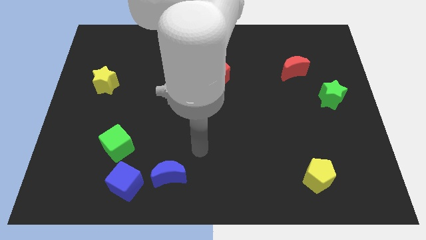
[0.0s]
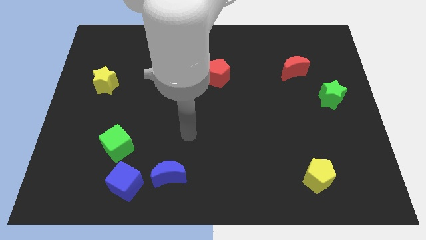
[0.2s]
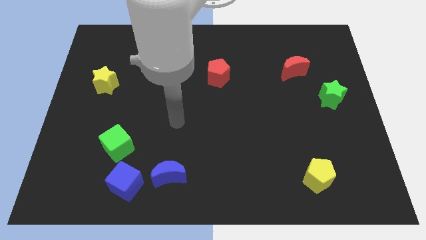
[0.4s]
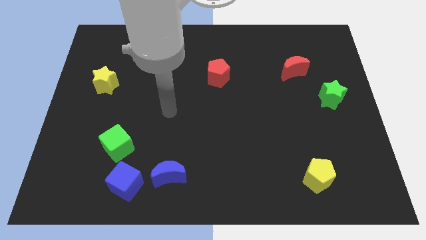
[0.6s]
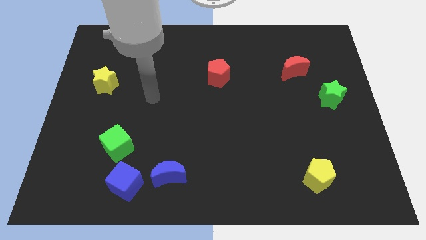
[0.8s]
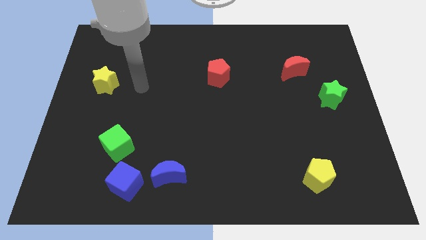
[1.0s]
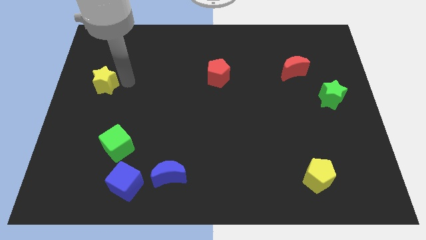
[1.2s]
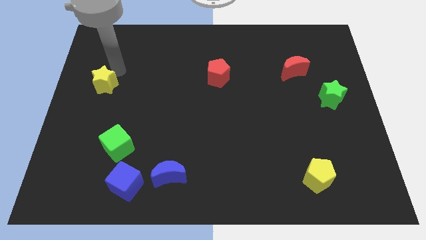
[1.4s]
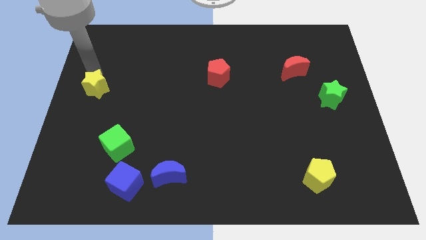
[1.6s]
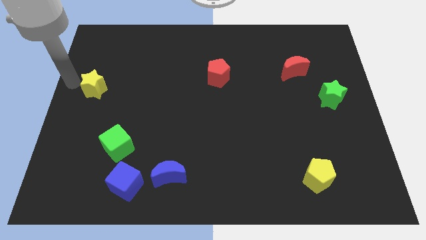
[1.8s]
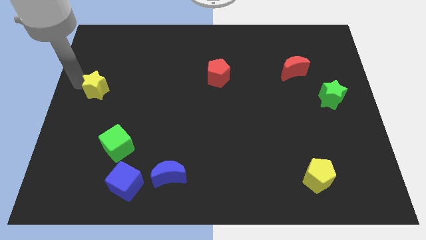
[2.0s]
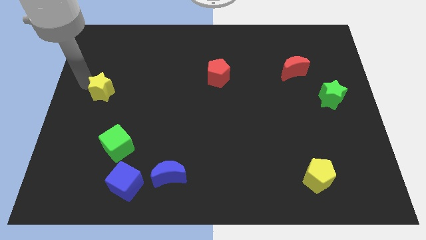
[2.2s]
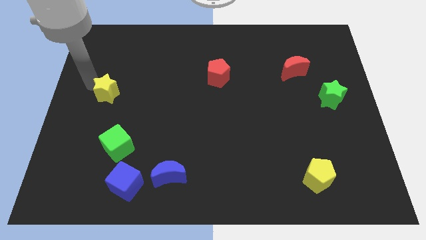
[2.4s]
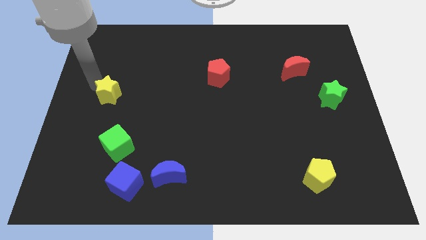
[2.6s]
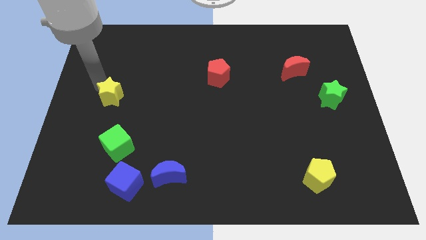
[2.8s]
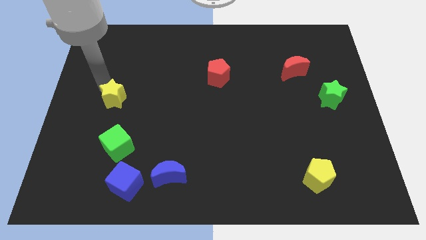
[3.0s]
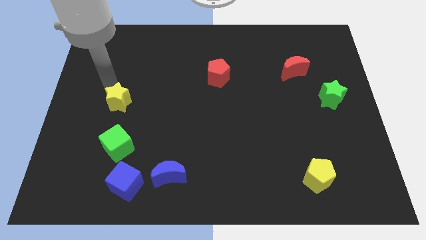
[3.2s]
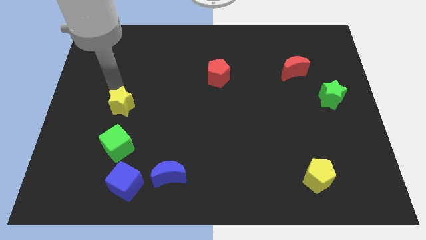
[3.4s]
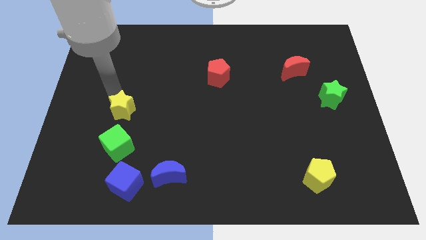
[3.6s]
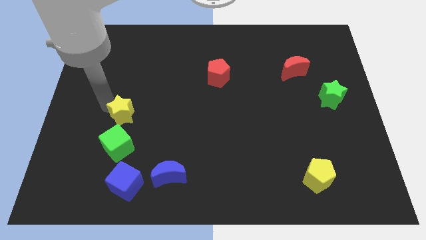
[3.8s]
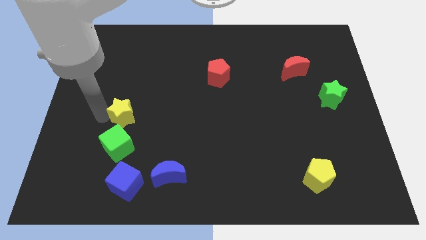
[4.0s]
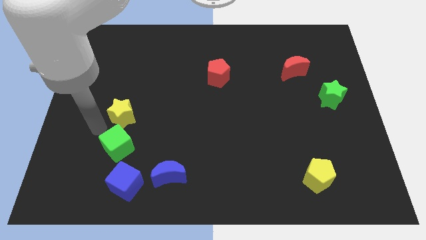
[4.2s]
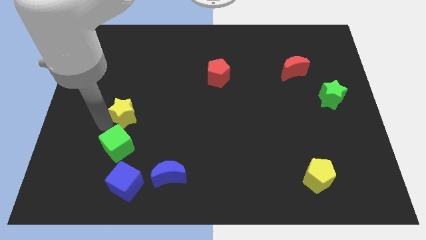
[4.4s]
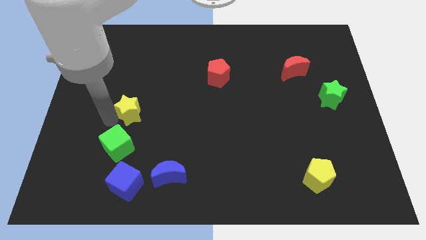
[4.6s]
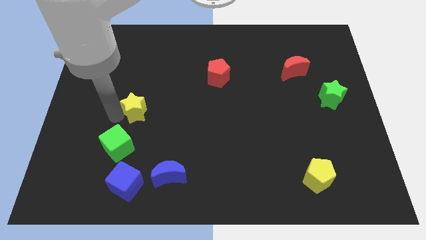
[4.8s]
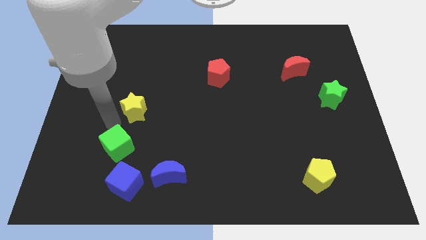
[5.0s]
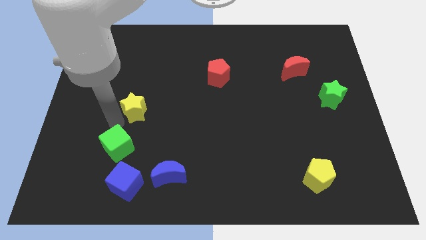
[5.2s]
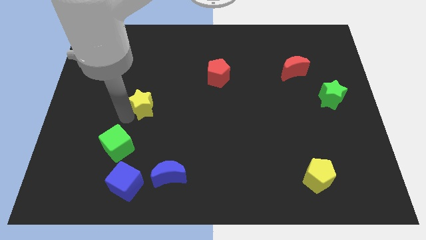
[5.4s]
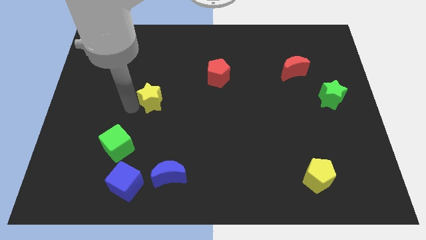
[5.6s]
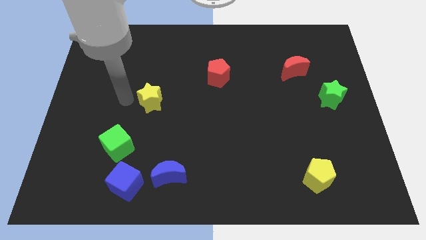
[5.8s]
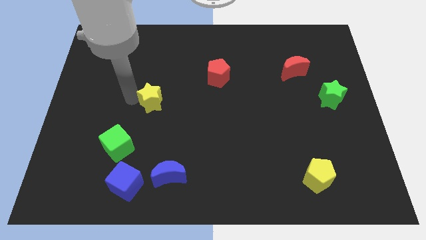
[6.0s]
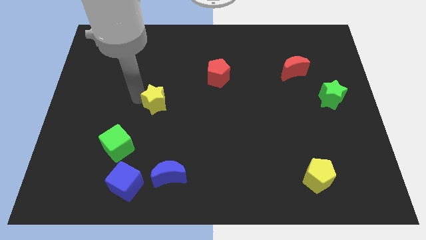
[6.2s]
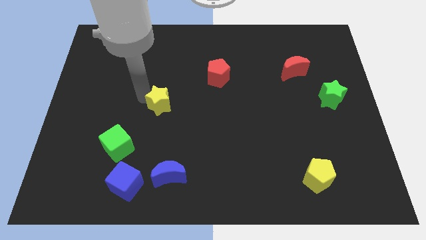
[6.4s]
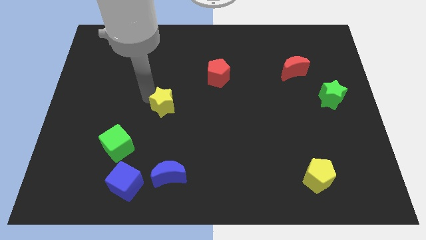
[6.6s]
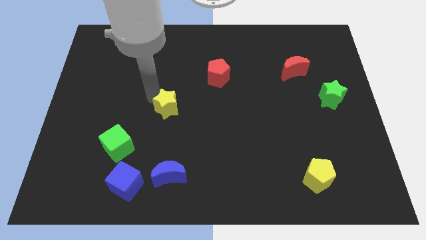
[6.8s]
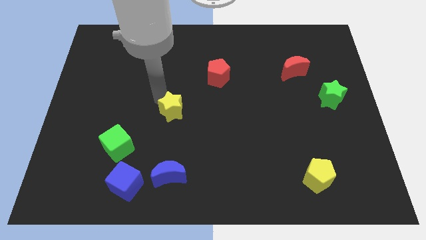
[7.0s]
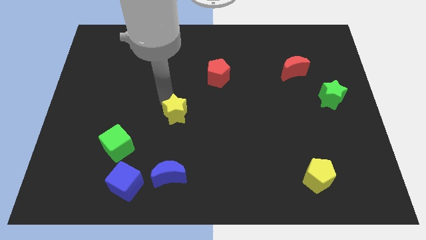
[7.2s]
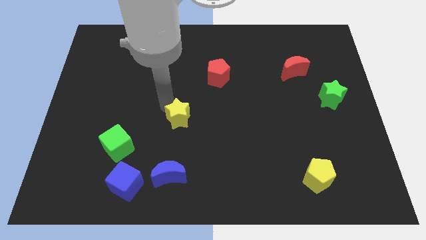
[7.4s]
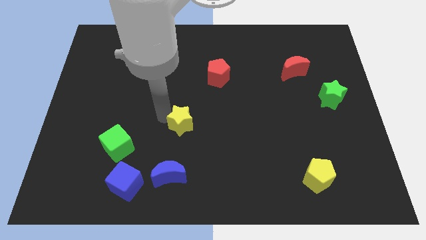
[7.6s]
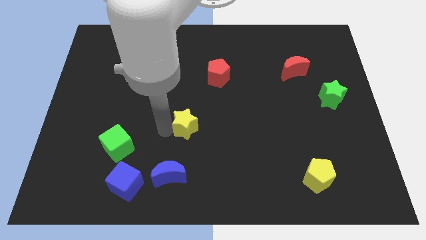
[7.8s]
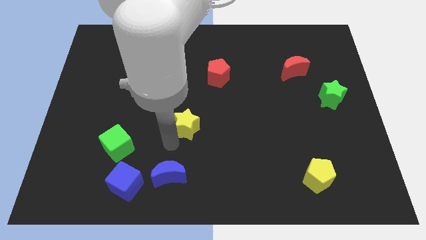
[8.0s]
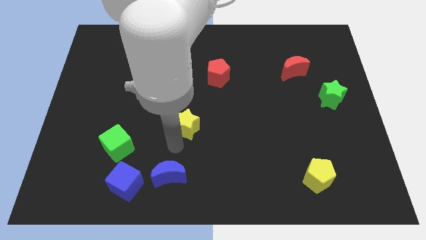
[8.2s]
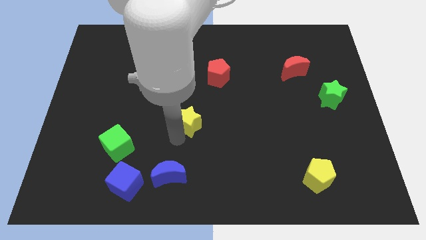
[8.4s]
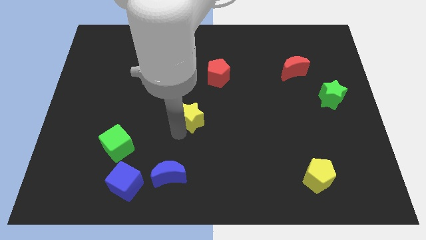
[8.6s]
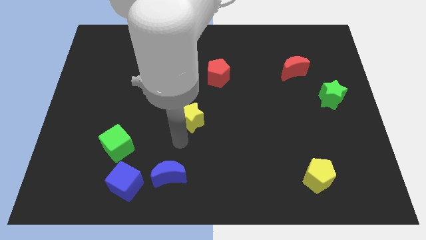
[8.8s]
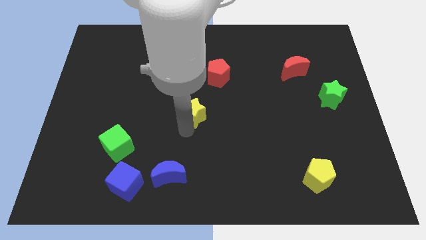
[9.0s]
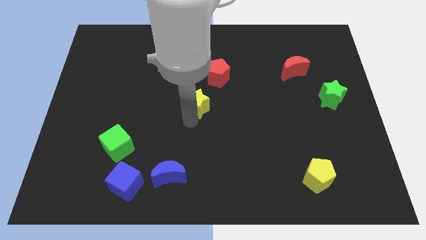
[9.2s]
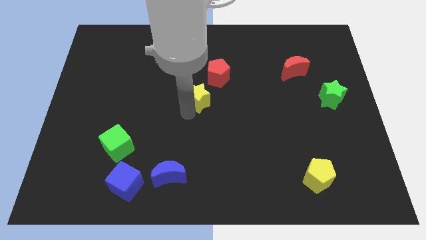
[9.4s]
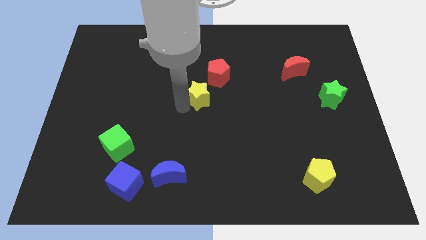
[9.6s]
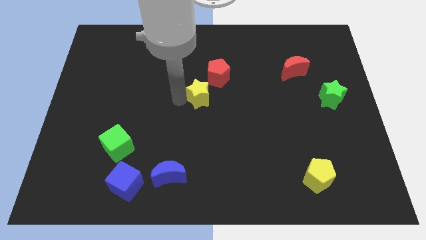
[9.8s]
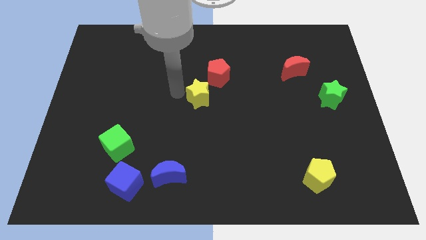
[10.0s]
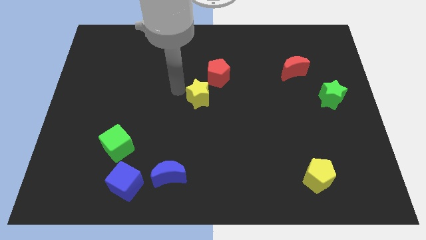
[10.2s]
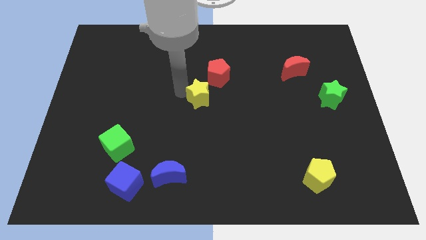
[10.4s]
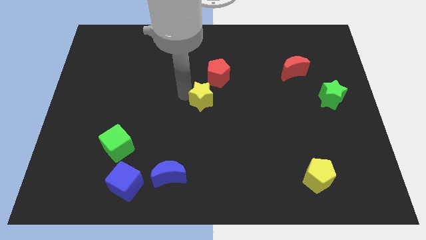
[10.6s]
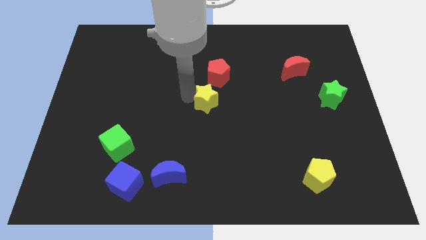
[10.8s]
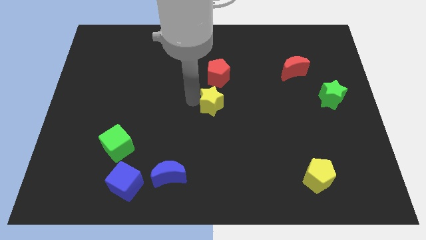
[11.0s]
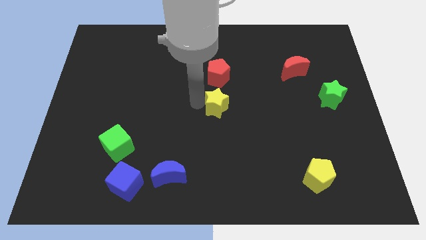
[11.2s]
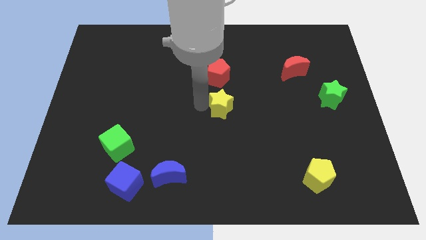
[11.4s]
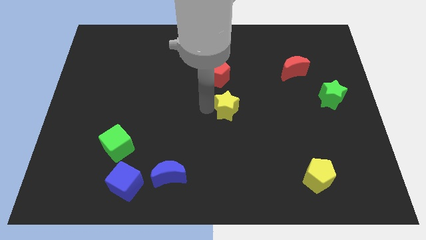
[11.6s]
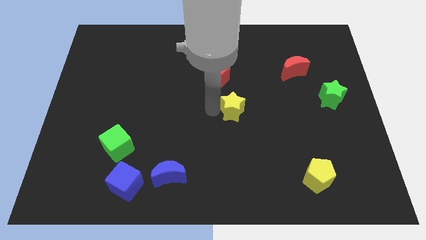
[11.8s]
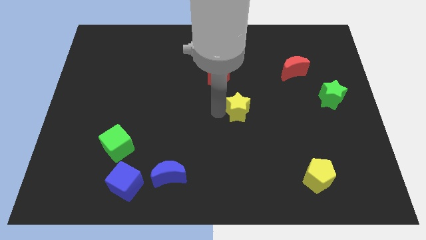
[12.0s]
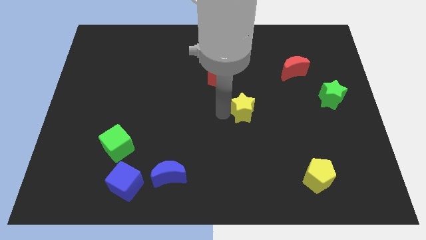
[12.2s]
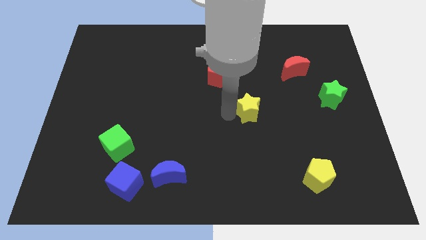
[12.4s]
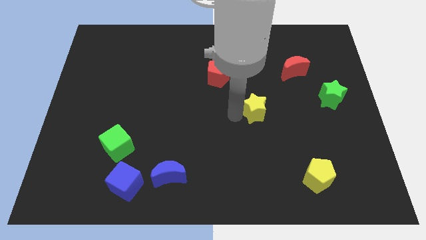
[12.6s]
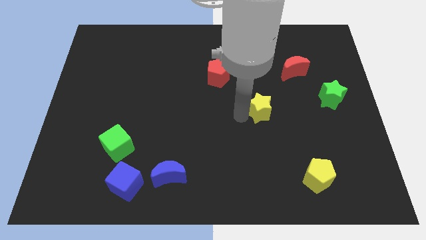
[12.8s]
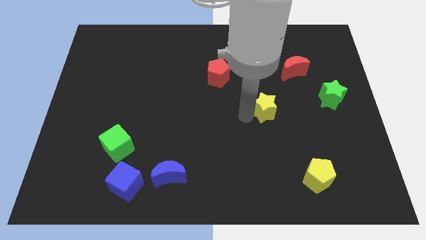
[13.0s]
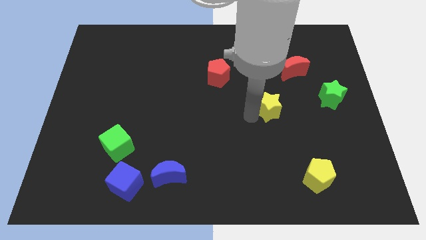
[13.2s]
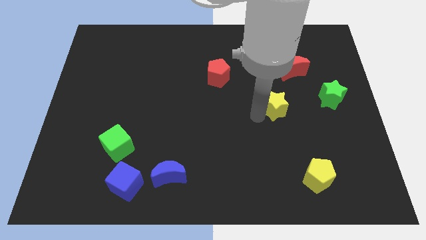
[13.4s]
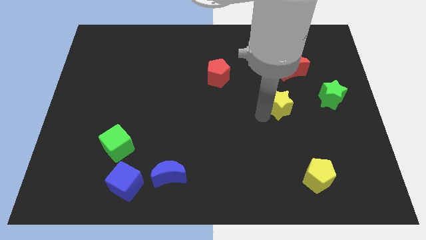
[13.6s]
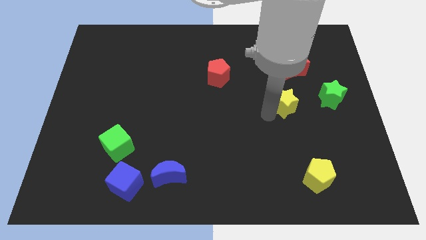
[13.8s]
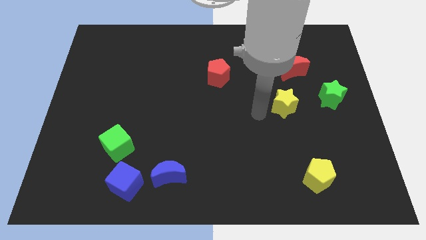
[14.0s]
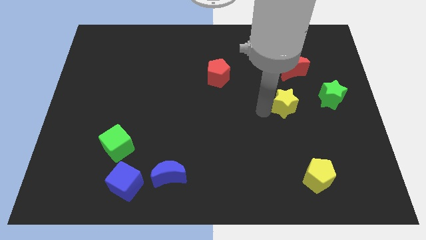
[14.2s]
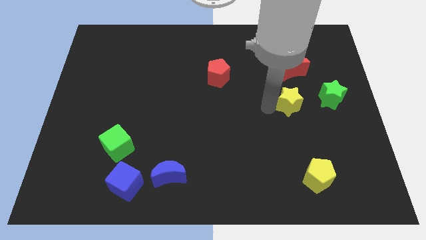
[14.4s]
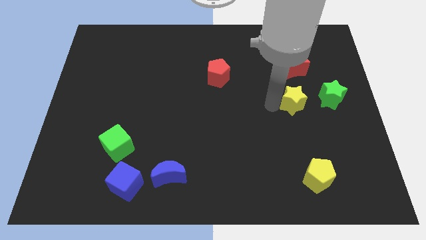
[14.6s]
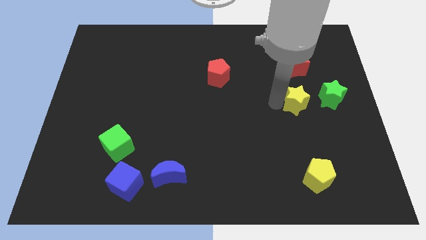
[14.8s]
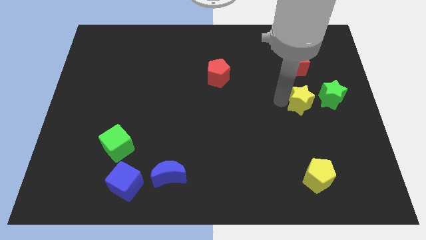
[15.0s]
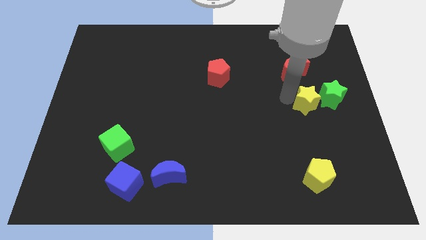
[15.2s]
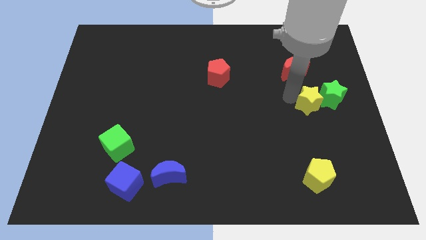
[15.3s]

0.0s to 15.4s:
put the yellow star towards the green star
